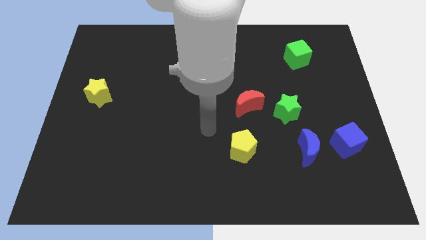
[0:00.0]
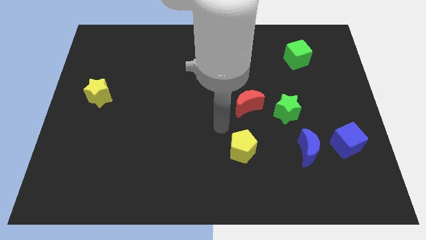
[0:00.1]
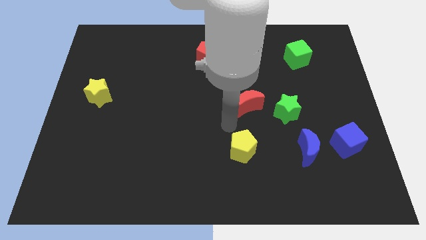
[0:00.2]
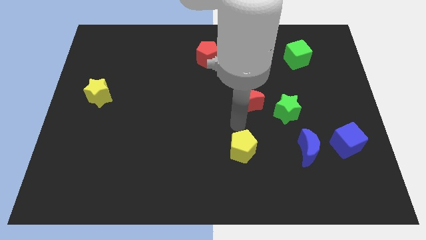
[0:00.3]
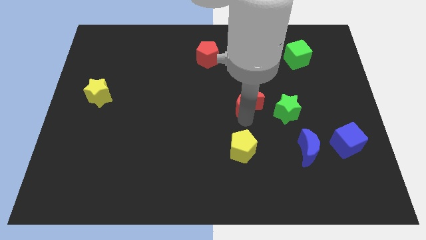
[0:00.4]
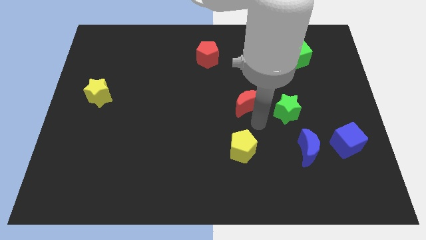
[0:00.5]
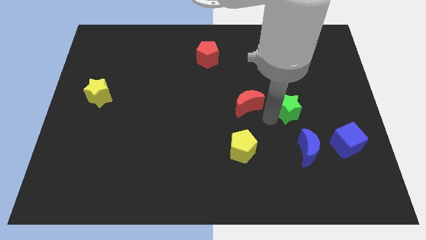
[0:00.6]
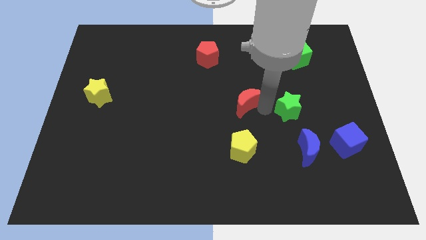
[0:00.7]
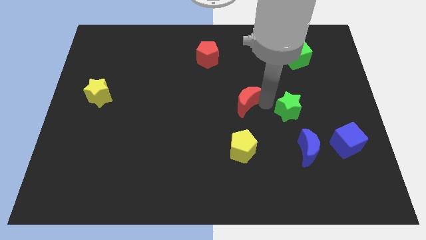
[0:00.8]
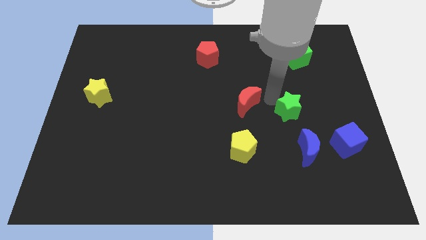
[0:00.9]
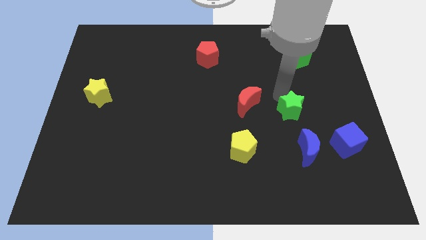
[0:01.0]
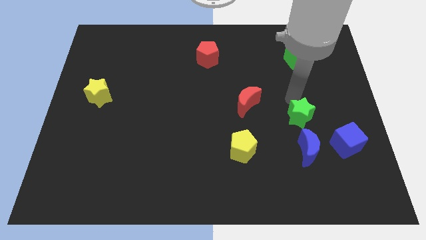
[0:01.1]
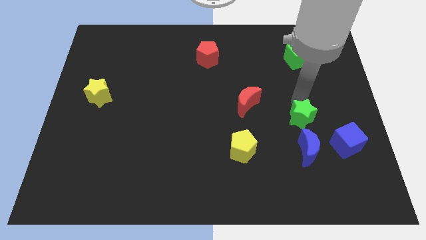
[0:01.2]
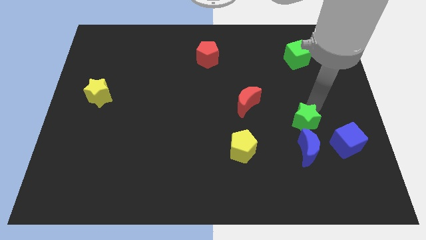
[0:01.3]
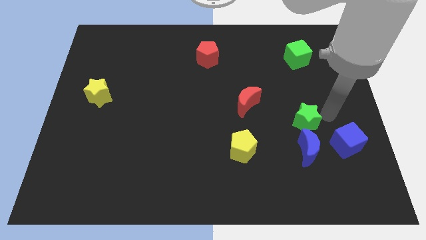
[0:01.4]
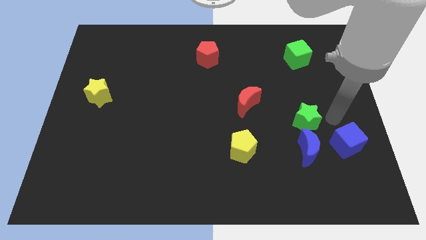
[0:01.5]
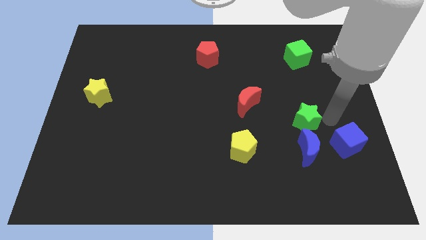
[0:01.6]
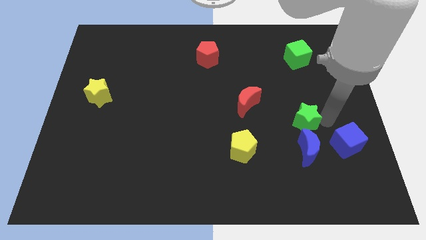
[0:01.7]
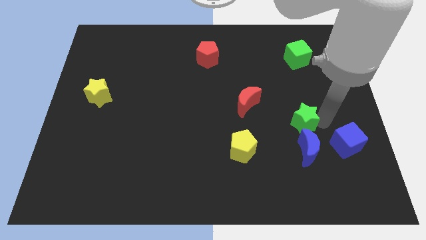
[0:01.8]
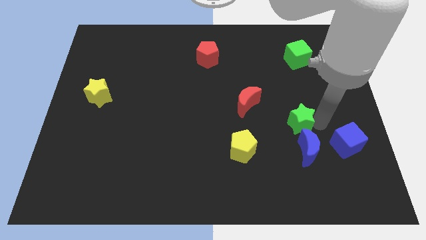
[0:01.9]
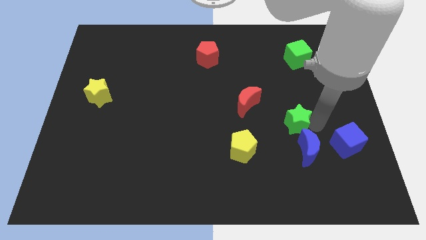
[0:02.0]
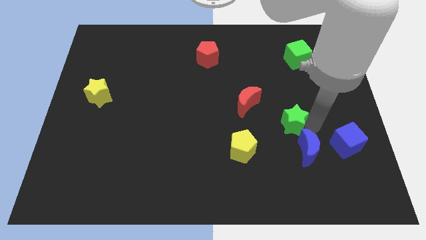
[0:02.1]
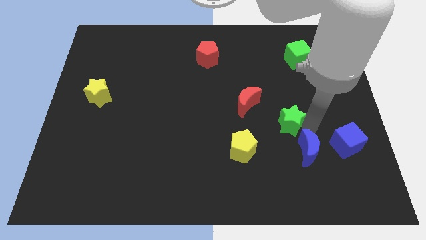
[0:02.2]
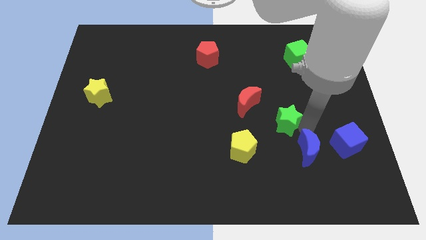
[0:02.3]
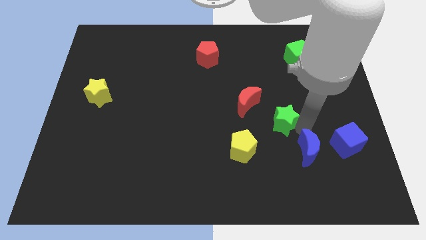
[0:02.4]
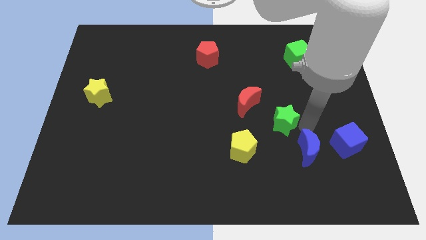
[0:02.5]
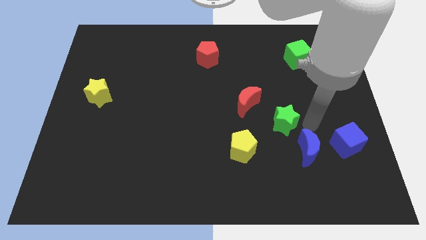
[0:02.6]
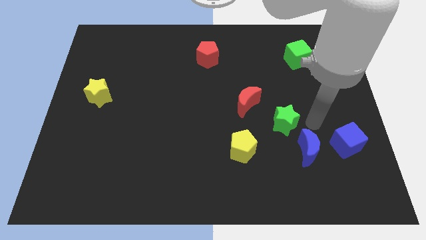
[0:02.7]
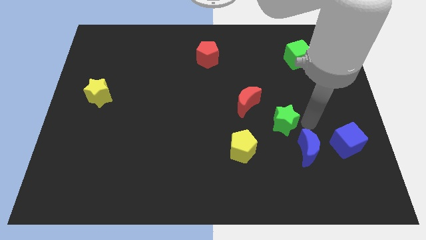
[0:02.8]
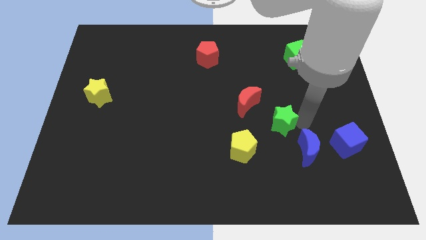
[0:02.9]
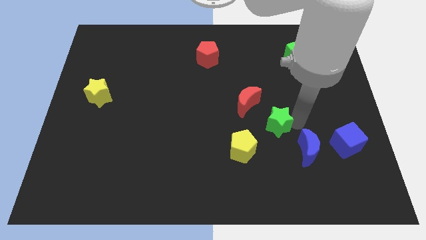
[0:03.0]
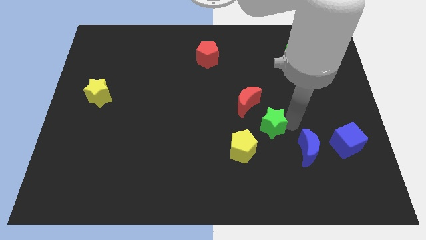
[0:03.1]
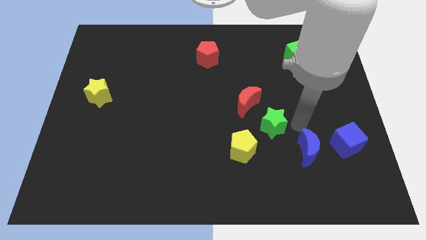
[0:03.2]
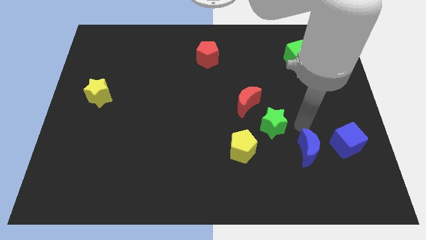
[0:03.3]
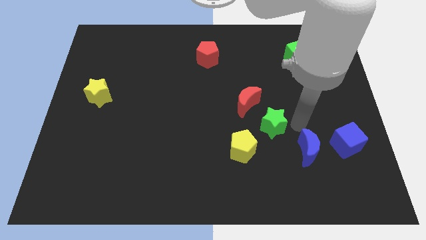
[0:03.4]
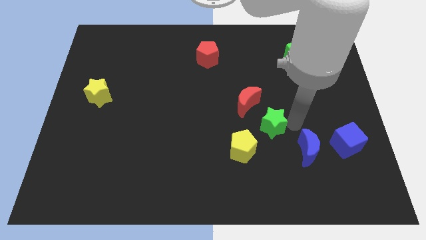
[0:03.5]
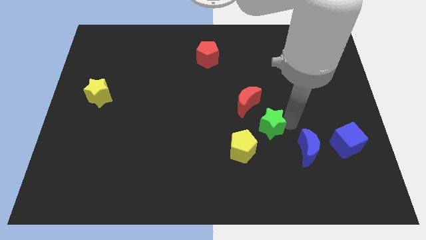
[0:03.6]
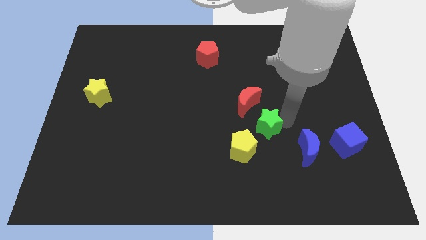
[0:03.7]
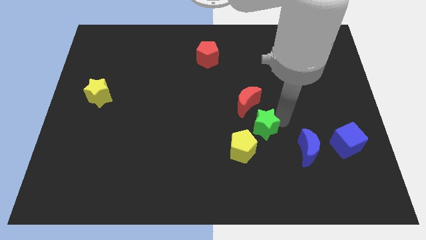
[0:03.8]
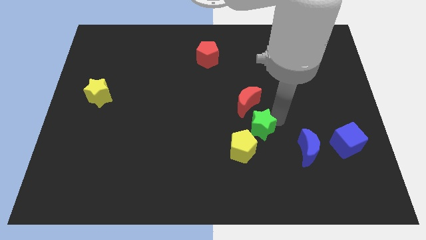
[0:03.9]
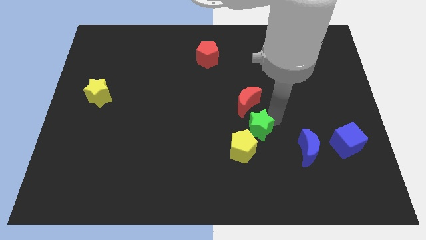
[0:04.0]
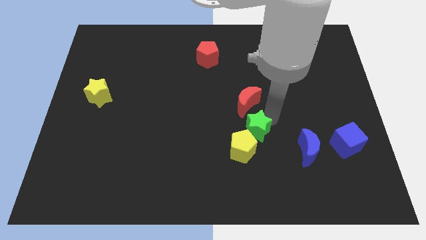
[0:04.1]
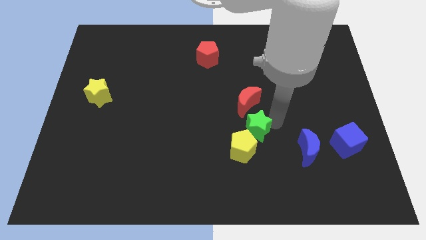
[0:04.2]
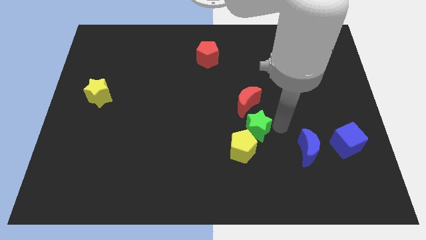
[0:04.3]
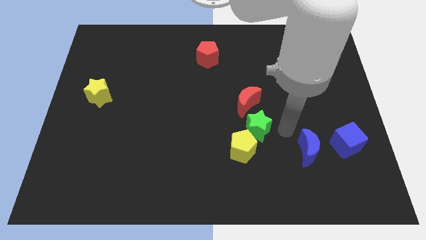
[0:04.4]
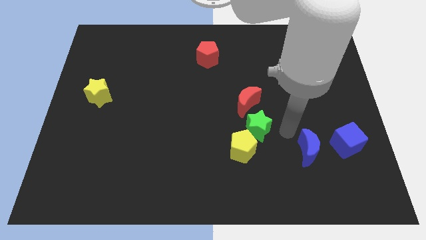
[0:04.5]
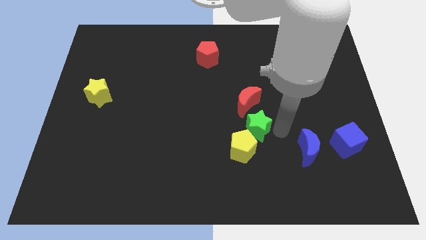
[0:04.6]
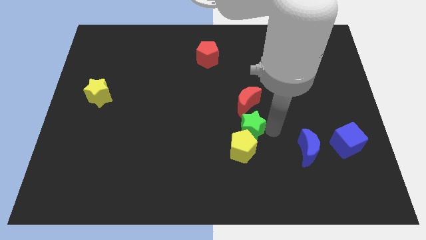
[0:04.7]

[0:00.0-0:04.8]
move the green star somewhat to the left

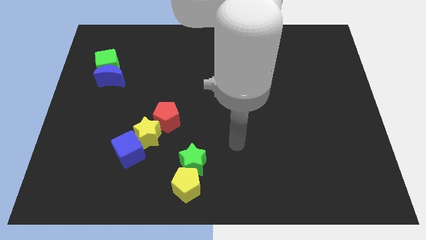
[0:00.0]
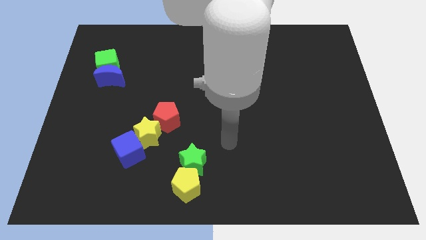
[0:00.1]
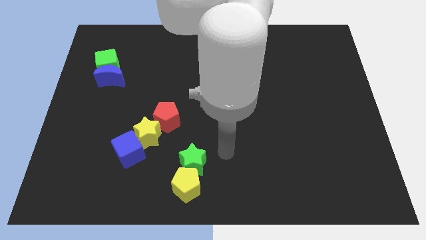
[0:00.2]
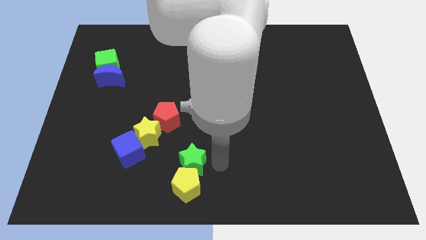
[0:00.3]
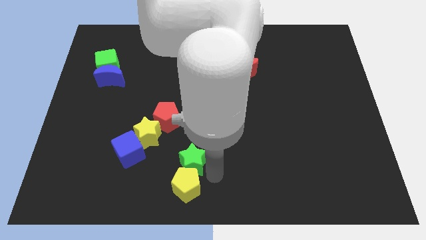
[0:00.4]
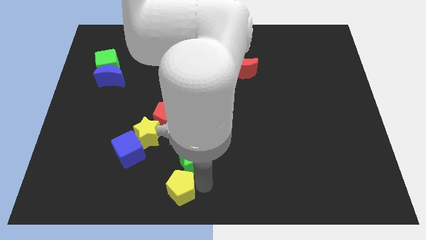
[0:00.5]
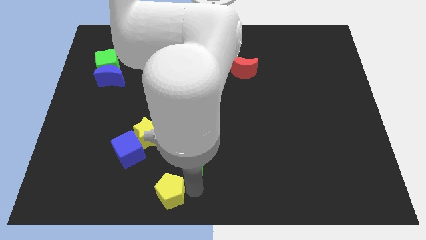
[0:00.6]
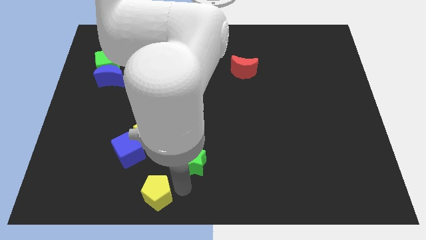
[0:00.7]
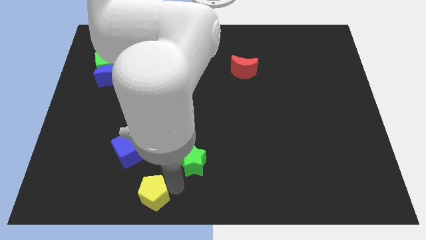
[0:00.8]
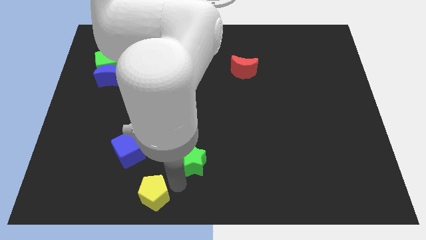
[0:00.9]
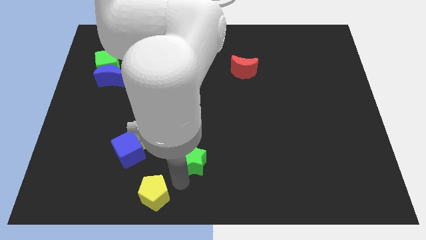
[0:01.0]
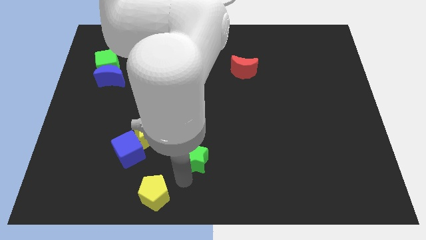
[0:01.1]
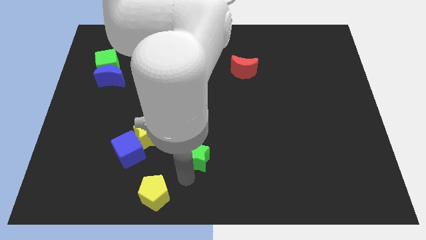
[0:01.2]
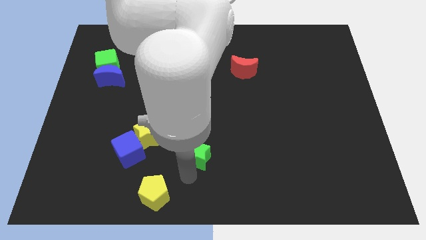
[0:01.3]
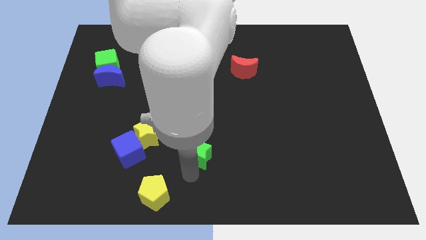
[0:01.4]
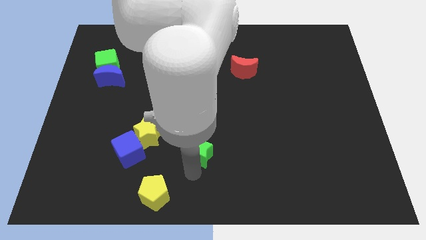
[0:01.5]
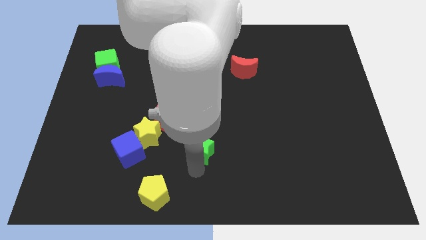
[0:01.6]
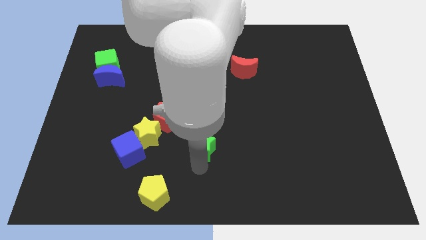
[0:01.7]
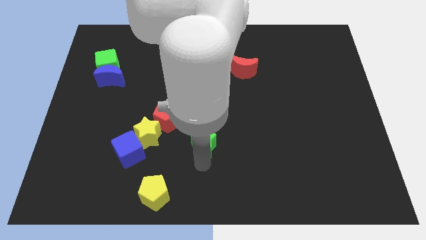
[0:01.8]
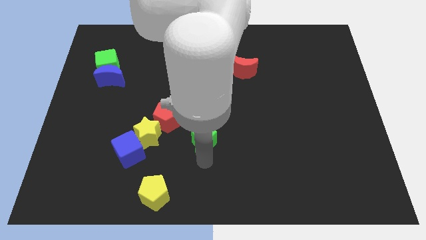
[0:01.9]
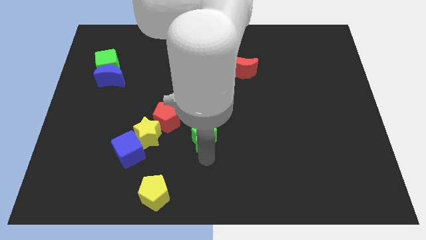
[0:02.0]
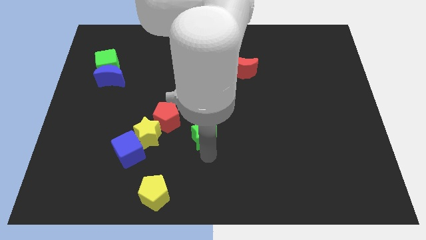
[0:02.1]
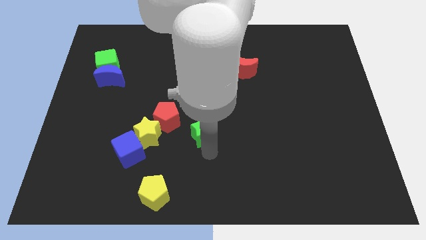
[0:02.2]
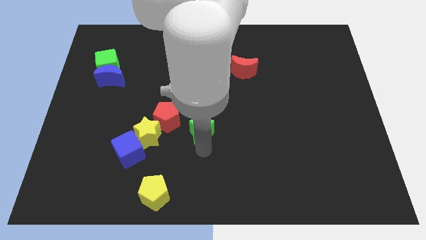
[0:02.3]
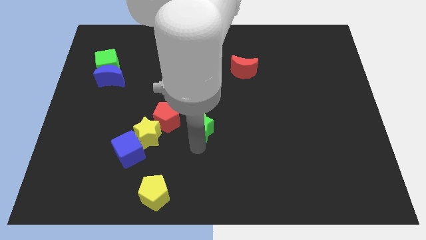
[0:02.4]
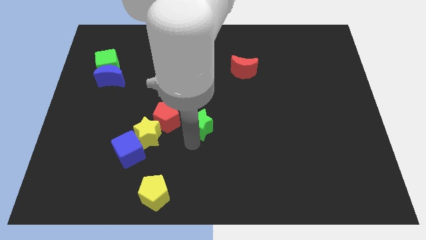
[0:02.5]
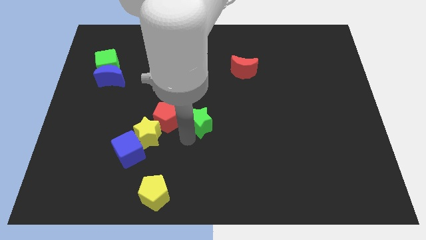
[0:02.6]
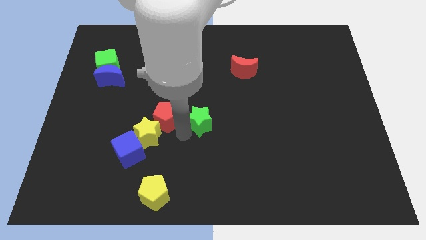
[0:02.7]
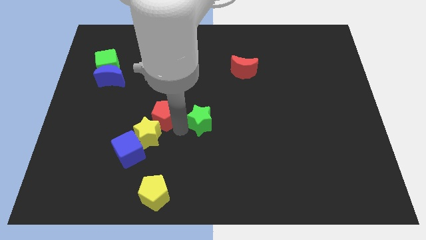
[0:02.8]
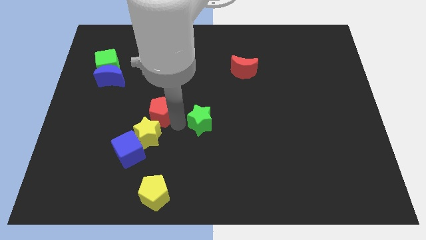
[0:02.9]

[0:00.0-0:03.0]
push the green star somewhat diagonally up and to the right
